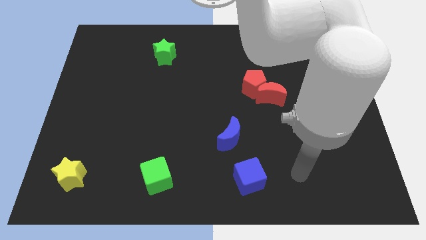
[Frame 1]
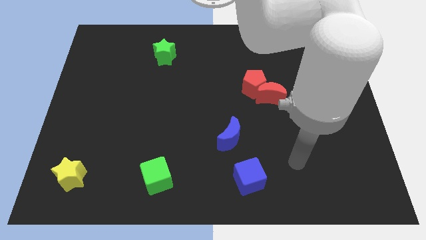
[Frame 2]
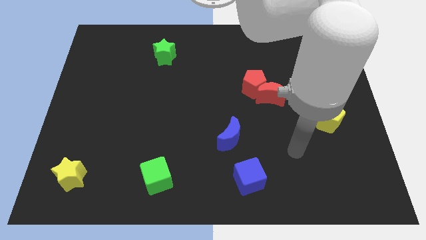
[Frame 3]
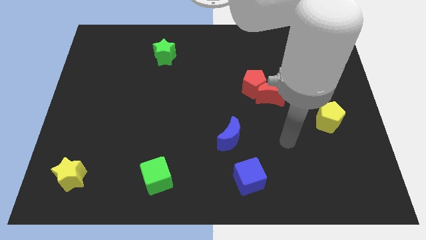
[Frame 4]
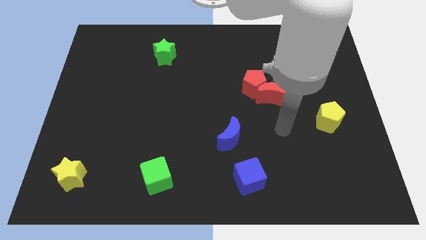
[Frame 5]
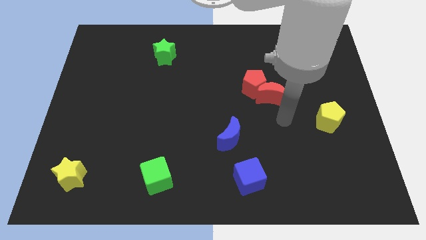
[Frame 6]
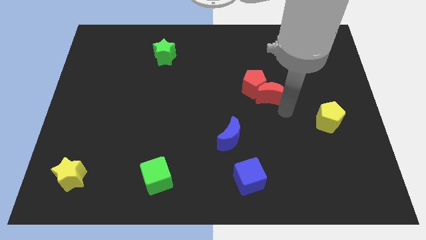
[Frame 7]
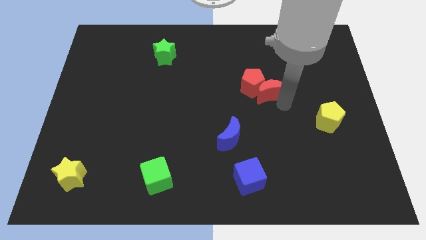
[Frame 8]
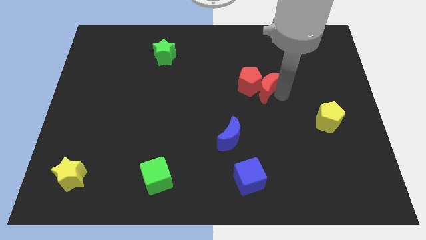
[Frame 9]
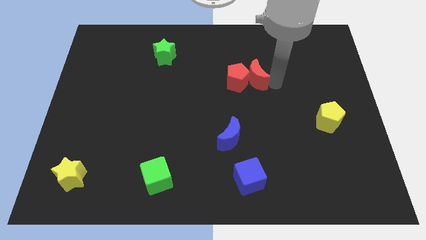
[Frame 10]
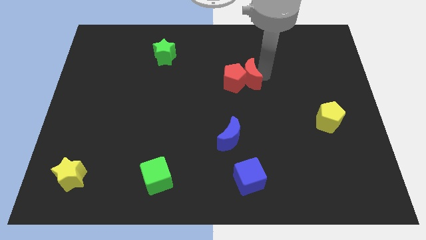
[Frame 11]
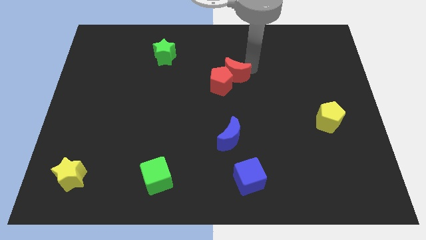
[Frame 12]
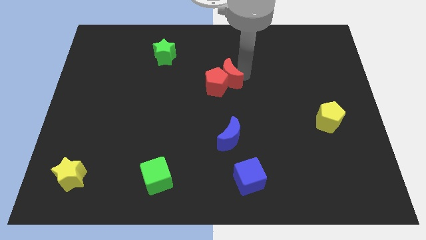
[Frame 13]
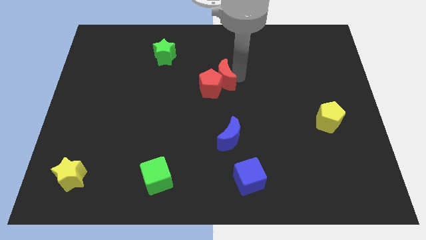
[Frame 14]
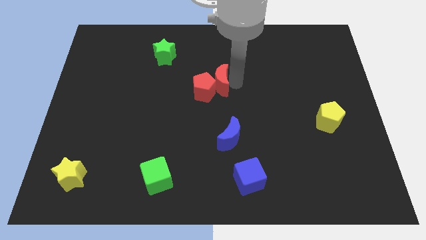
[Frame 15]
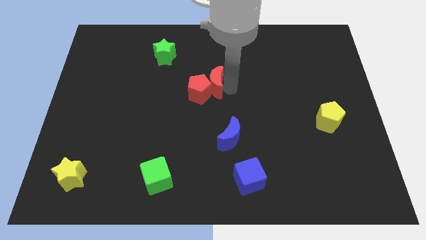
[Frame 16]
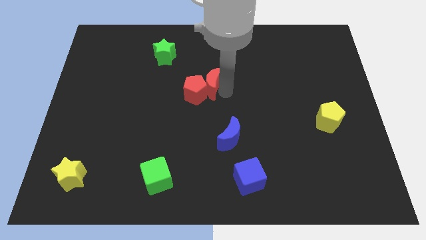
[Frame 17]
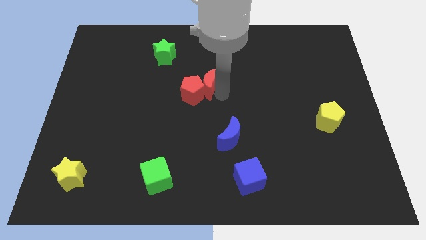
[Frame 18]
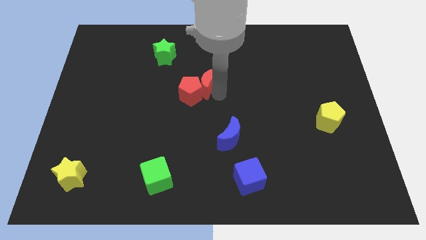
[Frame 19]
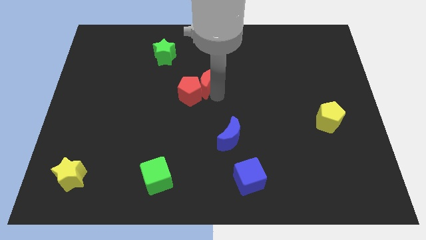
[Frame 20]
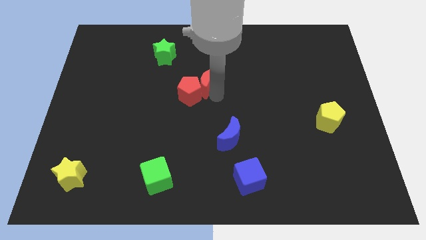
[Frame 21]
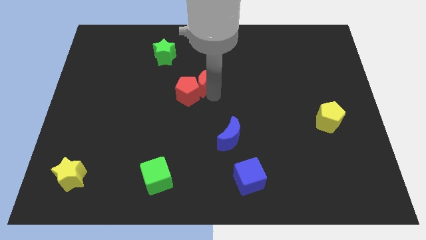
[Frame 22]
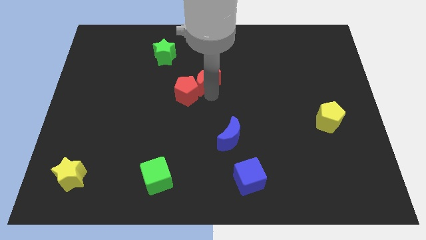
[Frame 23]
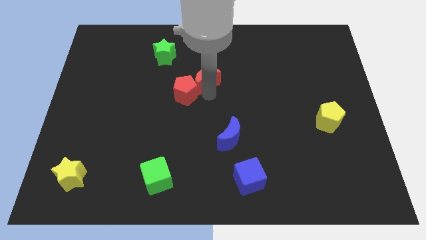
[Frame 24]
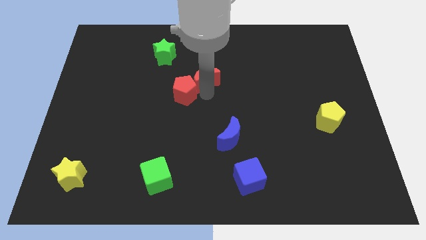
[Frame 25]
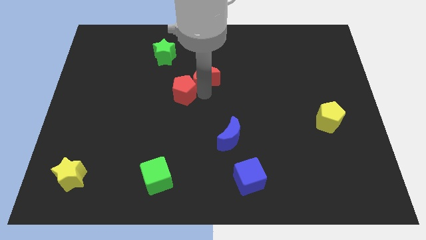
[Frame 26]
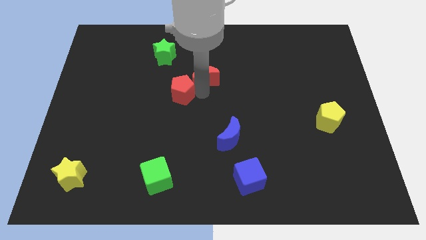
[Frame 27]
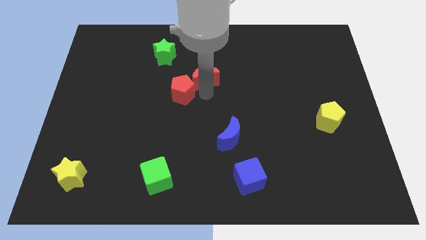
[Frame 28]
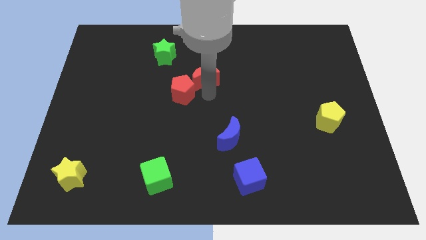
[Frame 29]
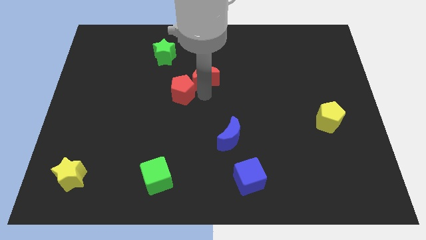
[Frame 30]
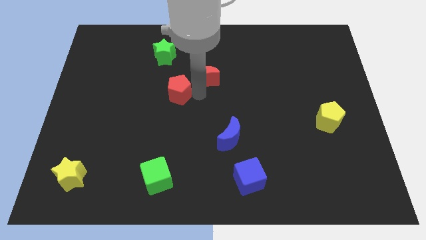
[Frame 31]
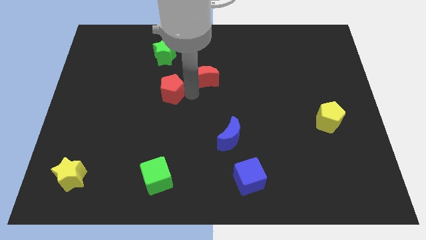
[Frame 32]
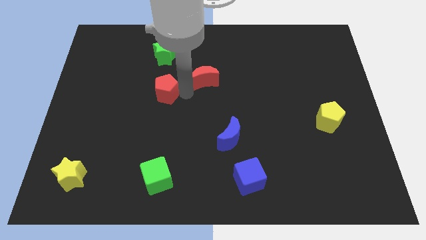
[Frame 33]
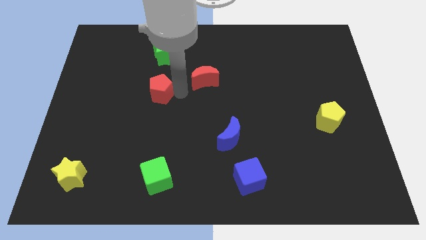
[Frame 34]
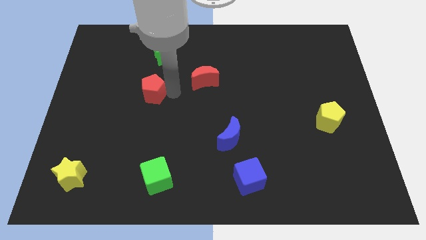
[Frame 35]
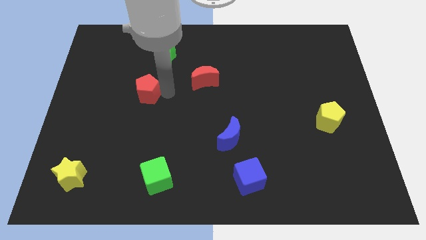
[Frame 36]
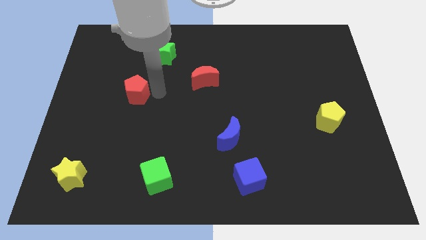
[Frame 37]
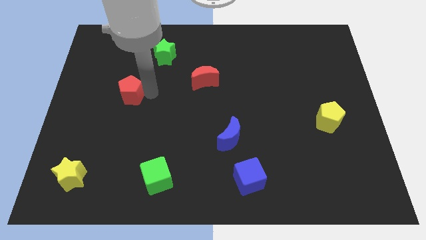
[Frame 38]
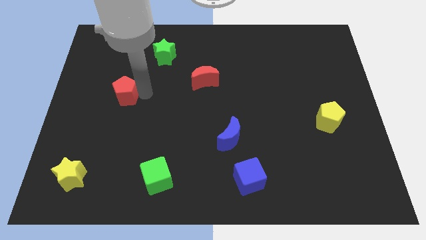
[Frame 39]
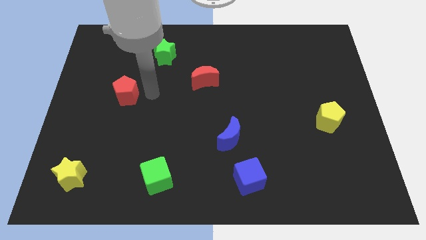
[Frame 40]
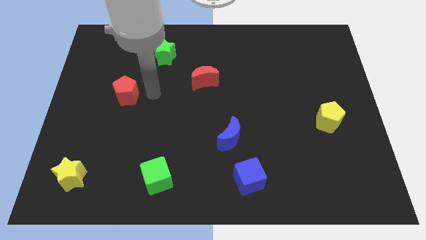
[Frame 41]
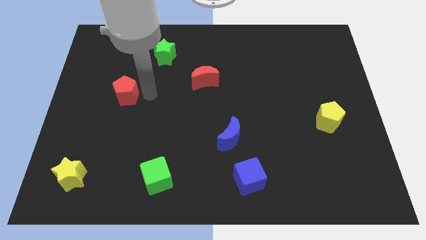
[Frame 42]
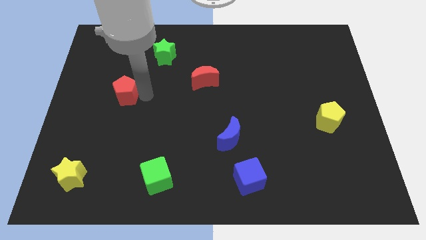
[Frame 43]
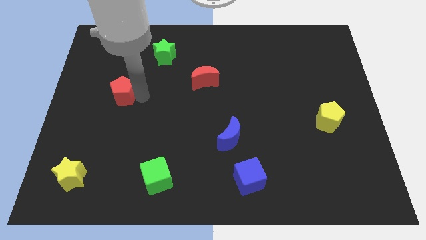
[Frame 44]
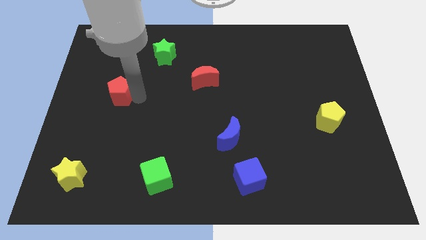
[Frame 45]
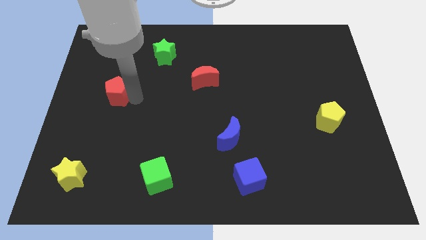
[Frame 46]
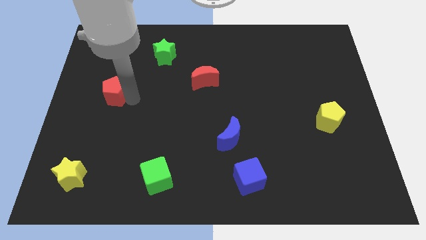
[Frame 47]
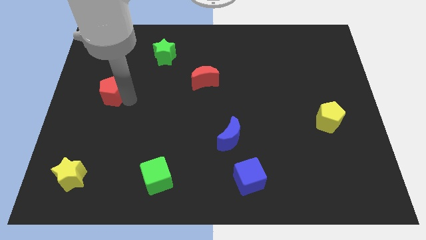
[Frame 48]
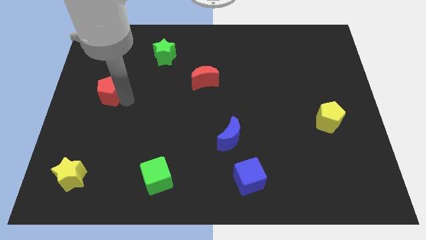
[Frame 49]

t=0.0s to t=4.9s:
push the red pentagon to the left side of the board

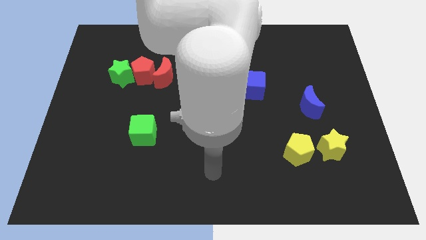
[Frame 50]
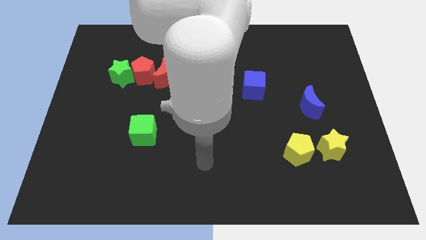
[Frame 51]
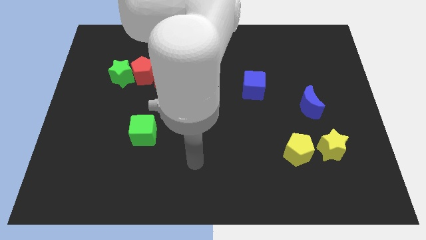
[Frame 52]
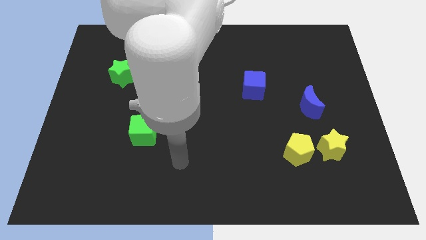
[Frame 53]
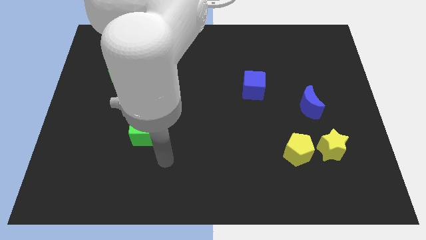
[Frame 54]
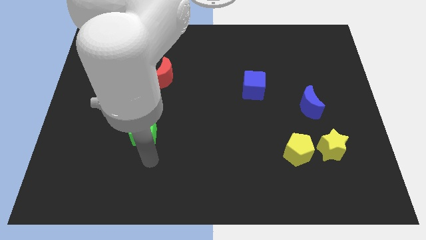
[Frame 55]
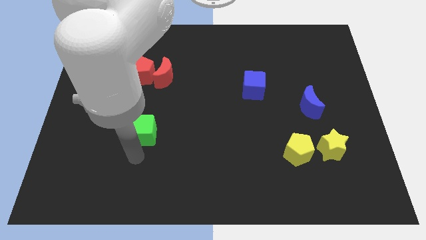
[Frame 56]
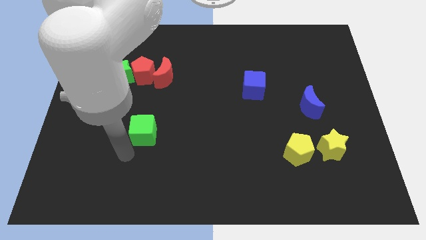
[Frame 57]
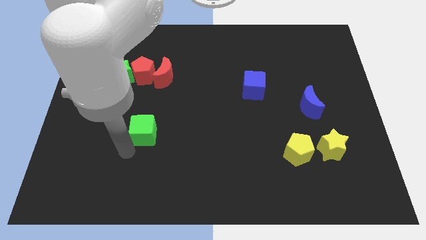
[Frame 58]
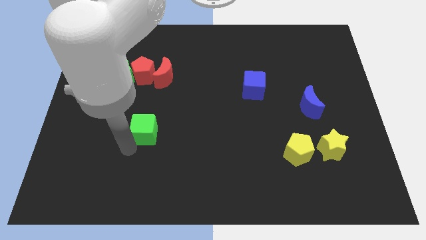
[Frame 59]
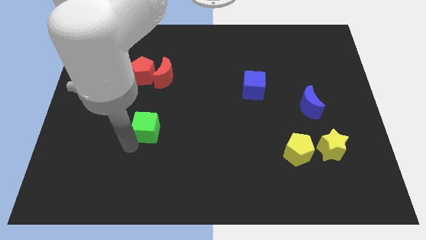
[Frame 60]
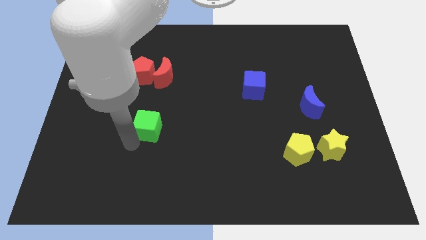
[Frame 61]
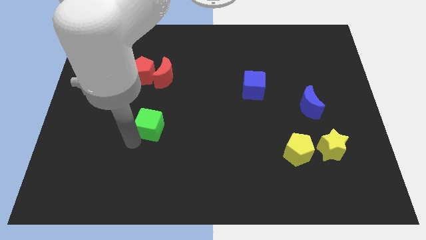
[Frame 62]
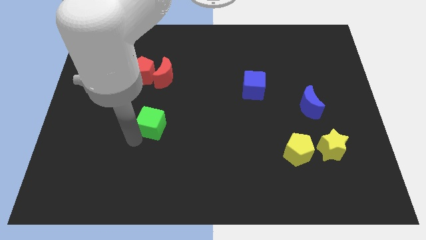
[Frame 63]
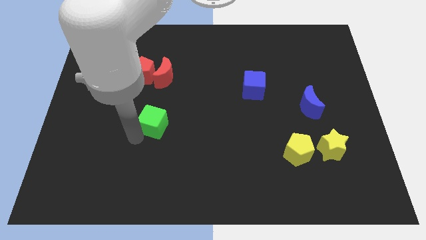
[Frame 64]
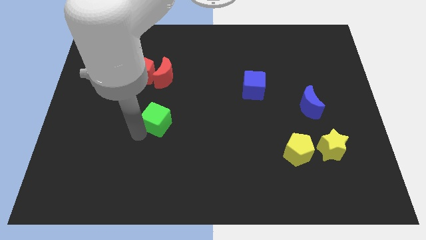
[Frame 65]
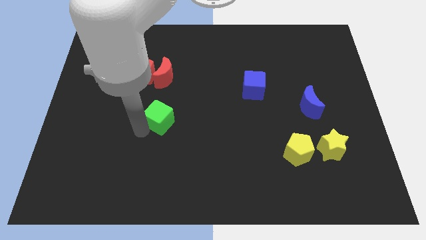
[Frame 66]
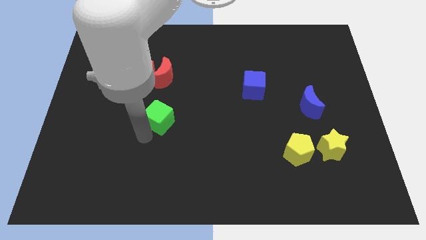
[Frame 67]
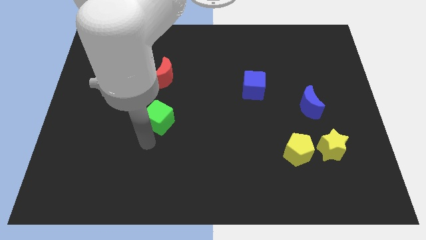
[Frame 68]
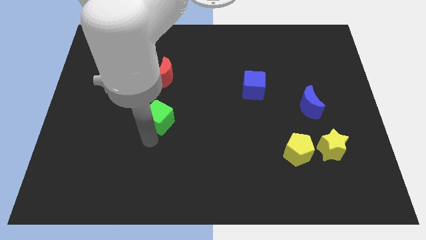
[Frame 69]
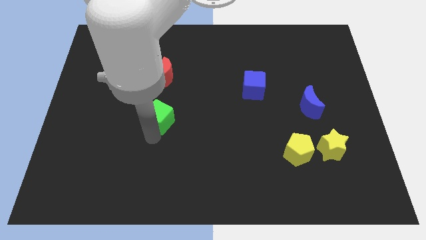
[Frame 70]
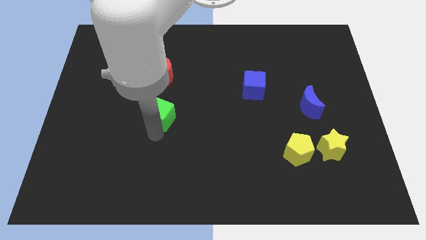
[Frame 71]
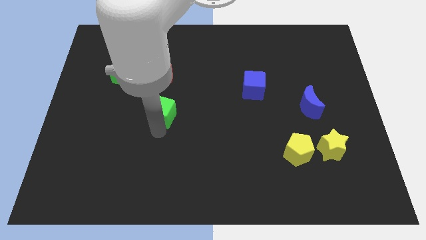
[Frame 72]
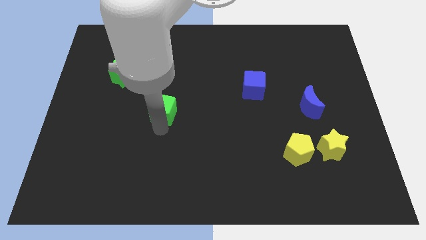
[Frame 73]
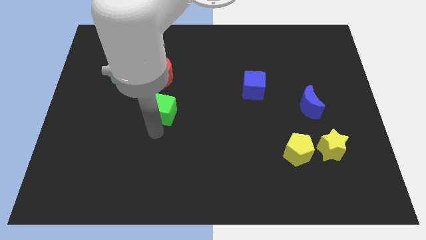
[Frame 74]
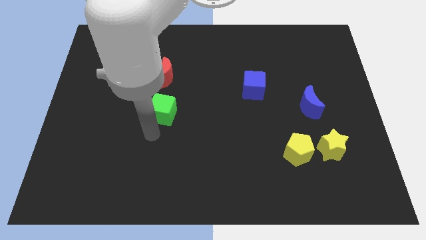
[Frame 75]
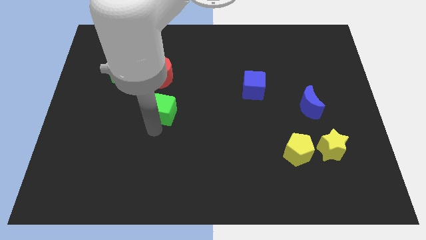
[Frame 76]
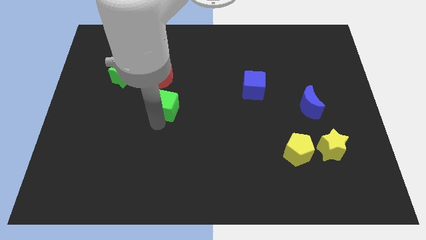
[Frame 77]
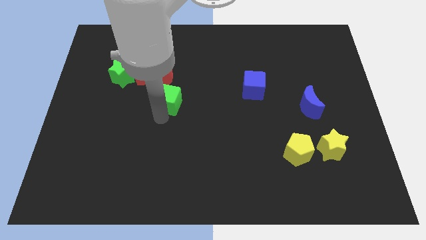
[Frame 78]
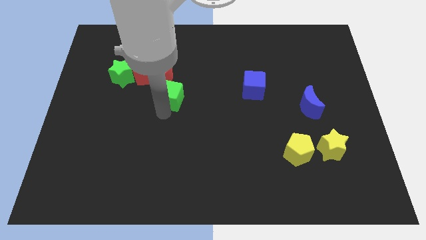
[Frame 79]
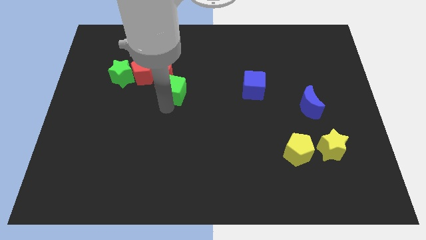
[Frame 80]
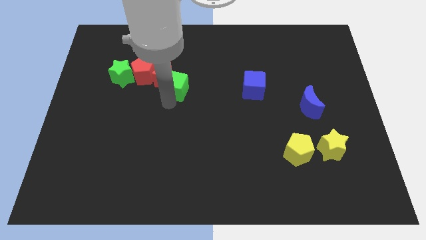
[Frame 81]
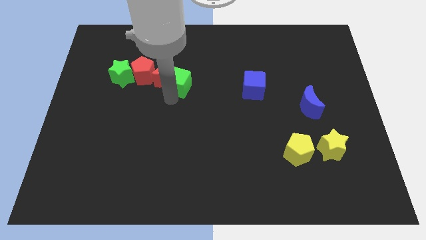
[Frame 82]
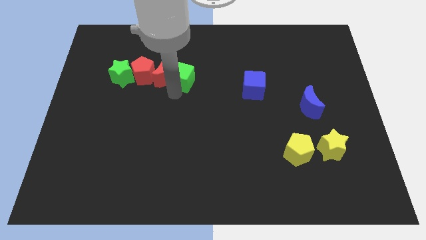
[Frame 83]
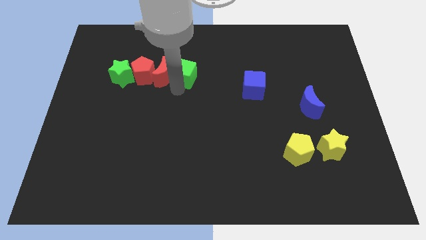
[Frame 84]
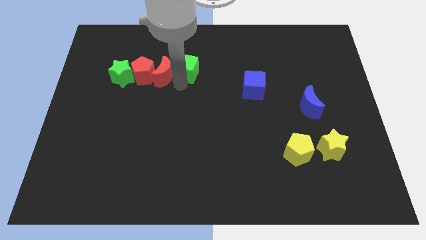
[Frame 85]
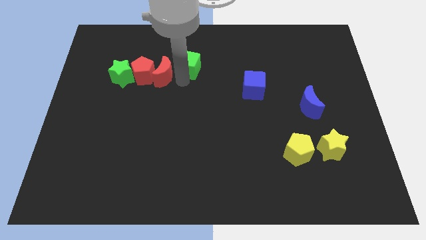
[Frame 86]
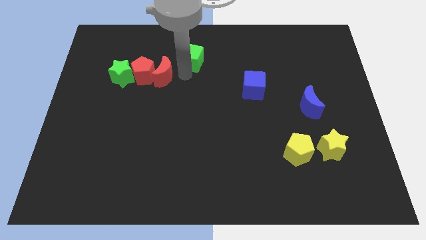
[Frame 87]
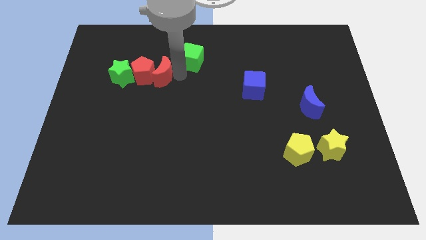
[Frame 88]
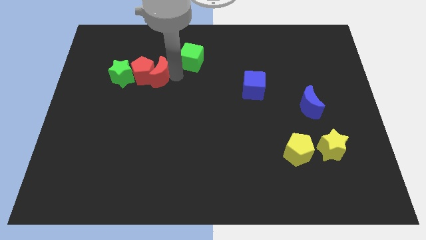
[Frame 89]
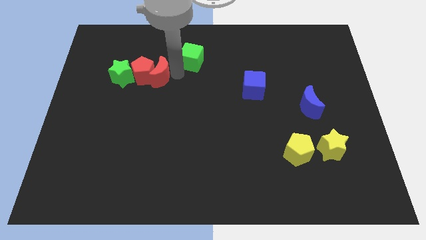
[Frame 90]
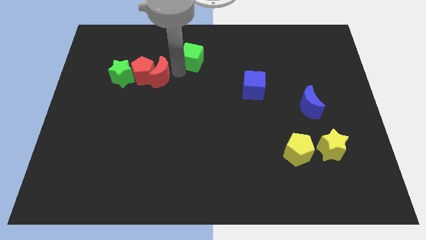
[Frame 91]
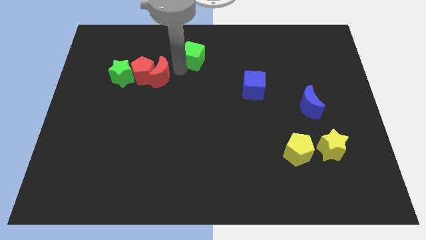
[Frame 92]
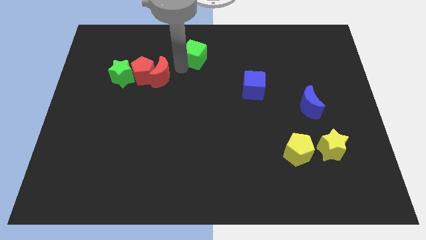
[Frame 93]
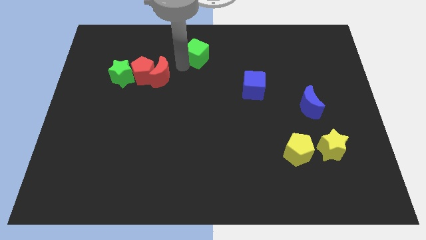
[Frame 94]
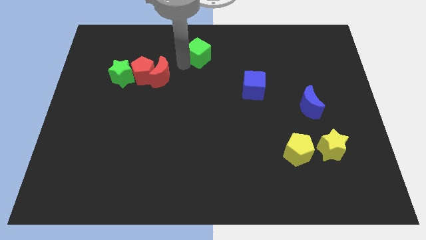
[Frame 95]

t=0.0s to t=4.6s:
push the green cube to the top side
